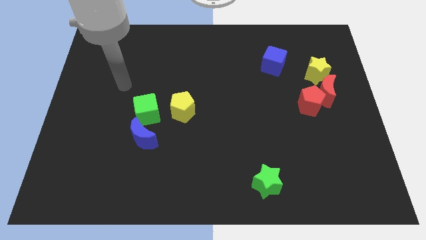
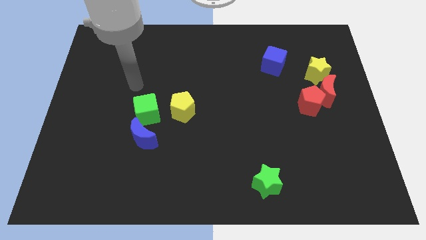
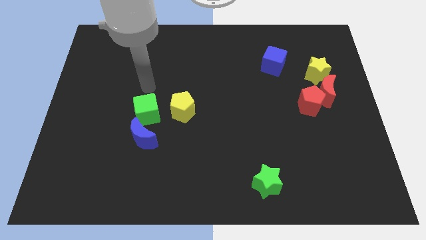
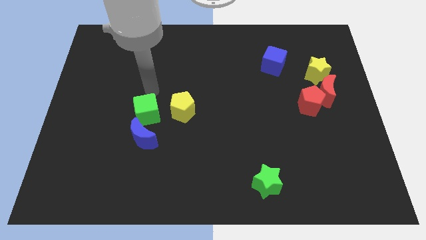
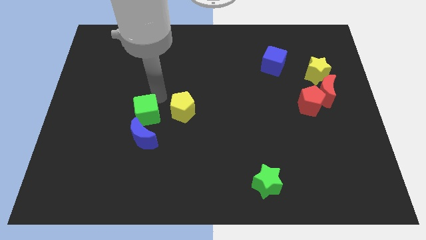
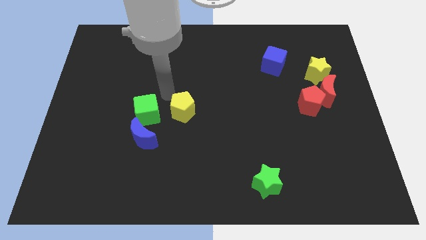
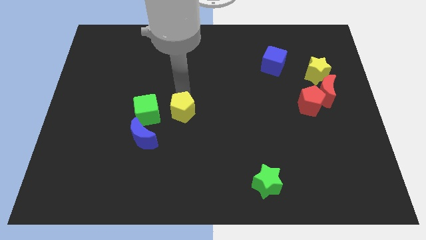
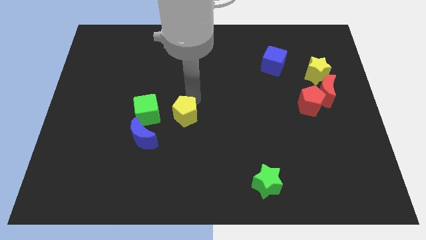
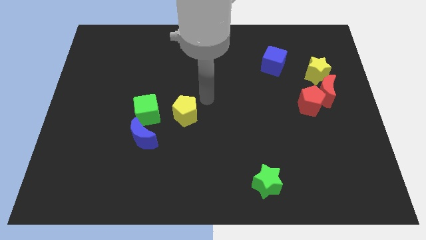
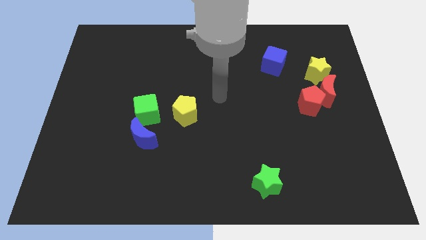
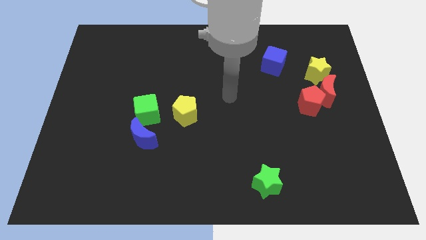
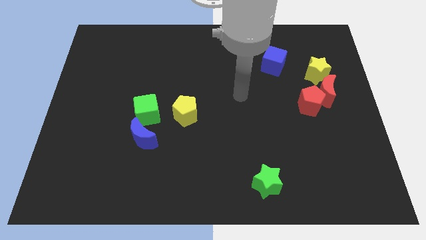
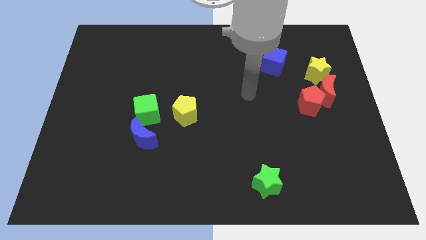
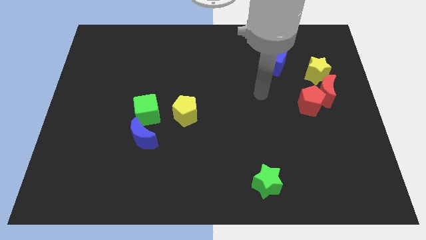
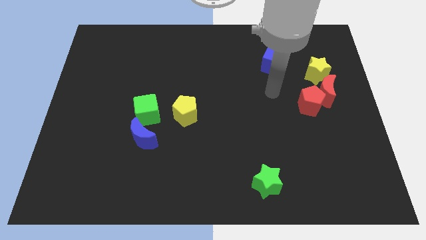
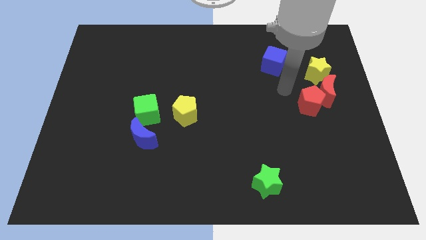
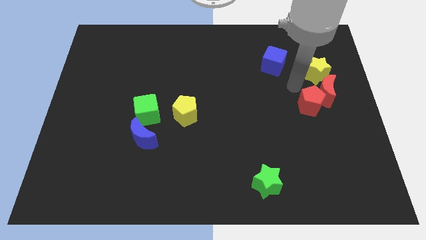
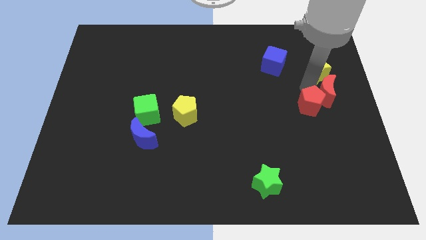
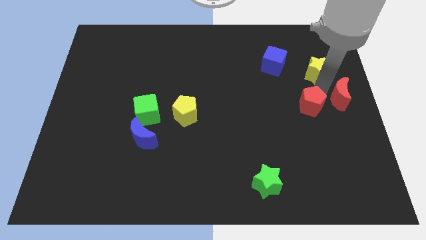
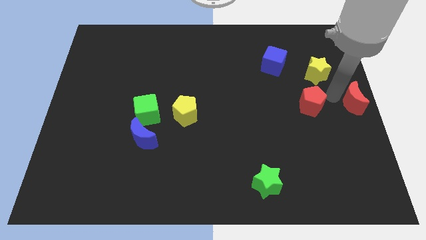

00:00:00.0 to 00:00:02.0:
separate the red pentagon from the red moon

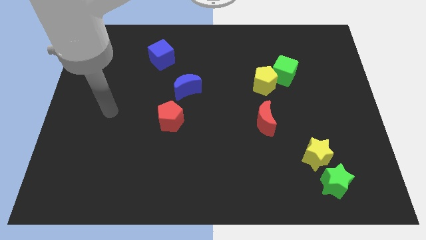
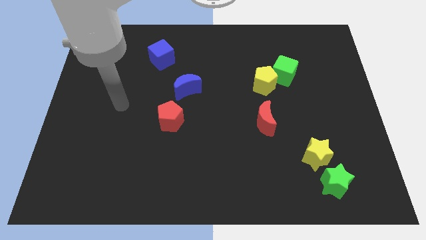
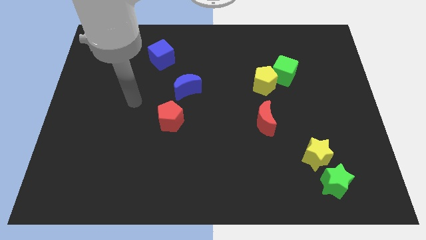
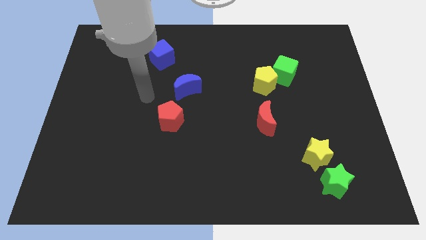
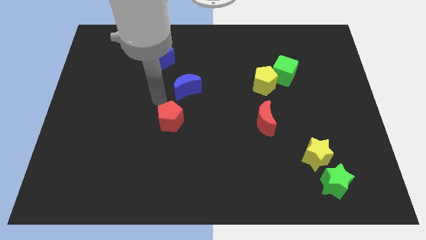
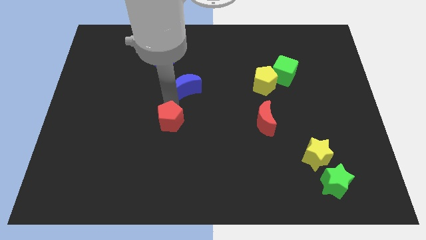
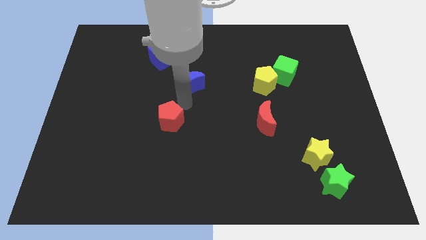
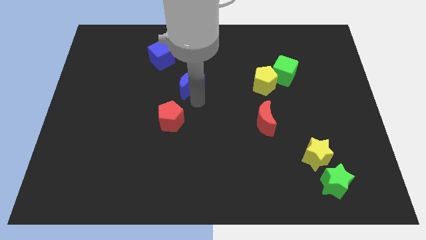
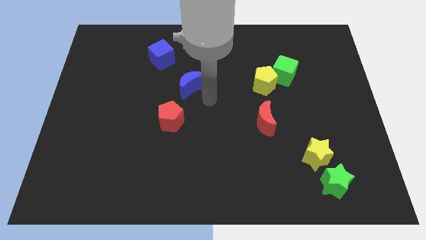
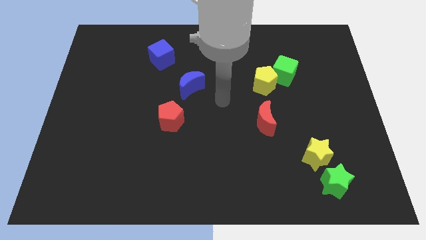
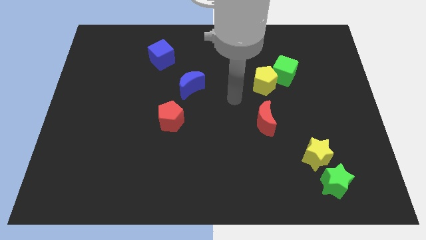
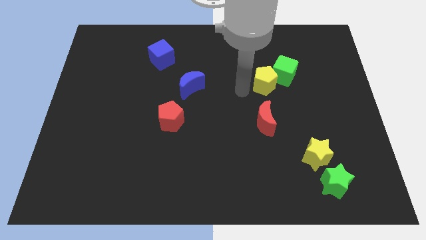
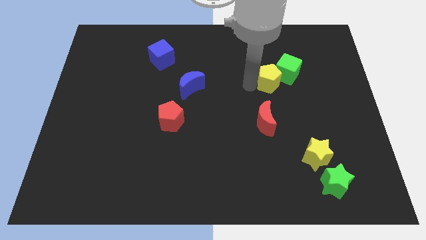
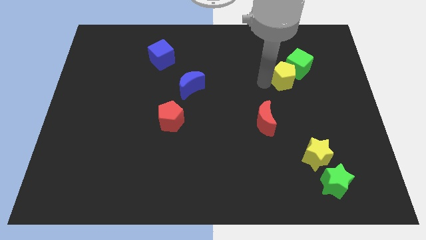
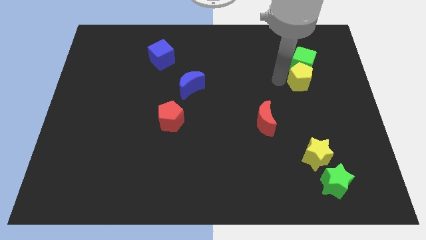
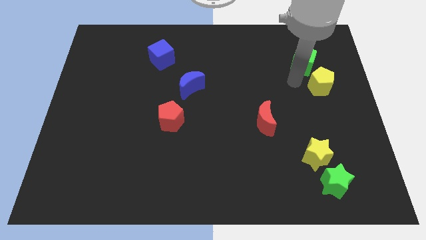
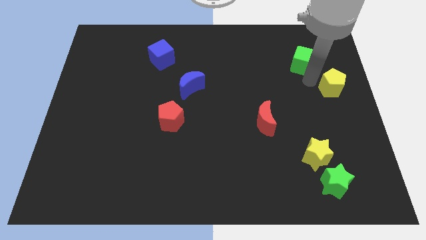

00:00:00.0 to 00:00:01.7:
move the green cube away from the yellow pentagon

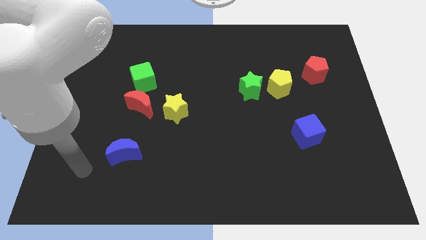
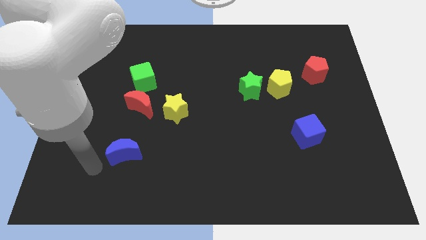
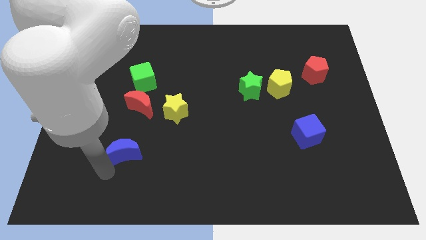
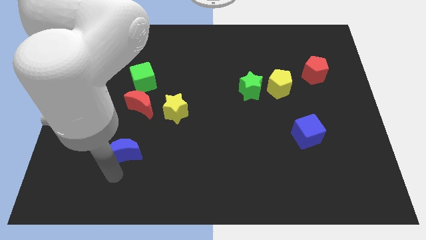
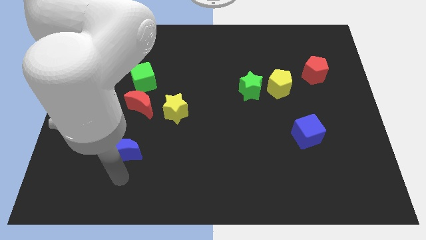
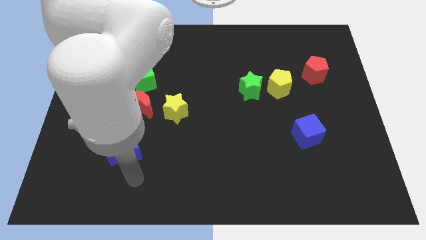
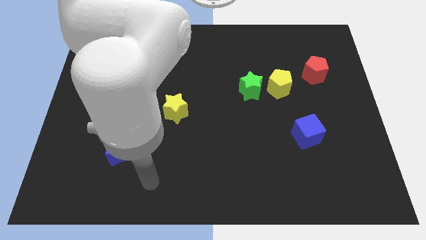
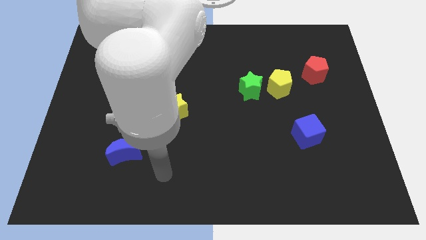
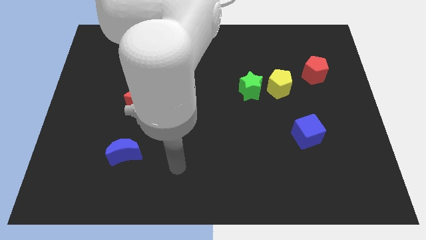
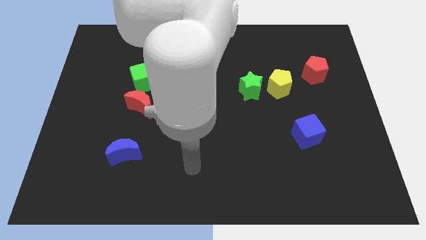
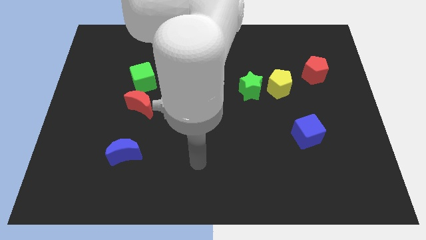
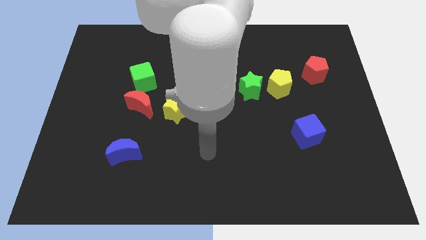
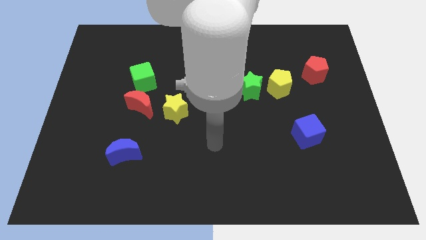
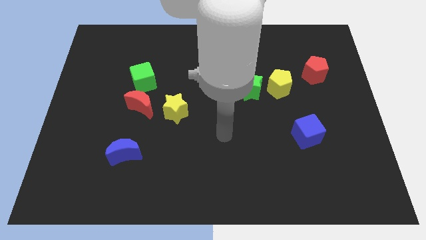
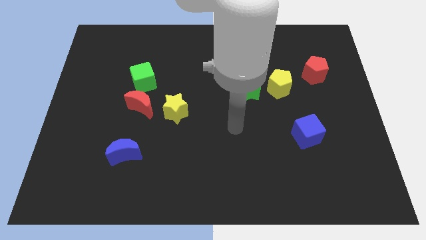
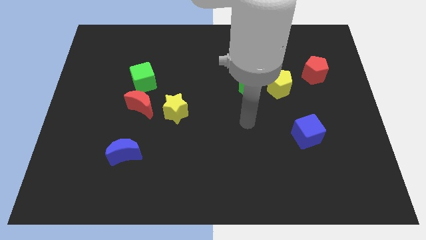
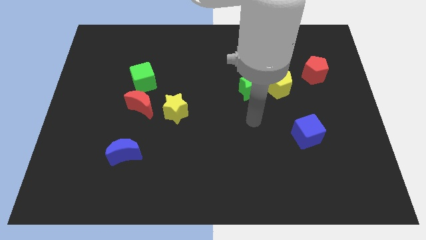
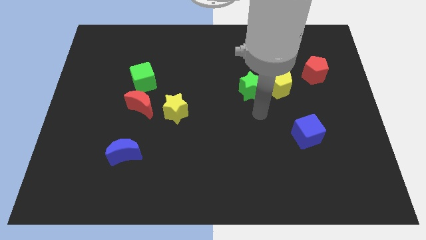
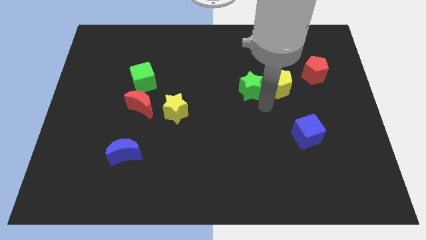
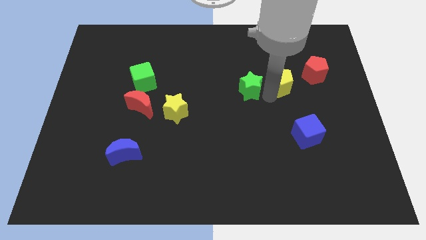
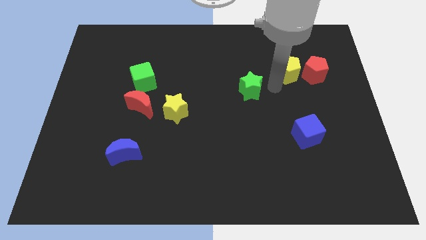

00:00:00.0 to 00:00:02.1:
pull the green star apart from the yellow pentagon

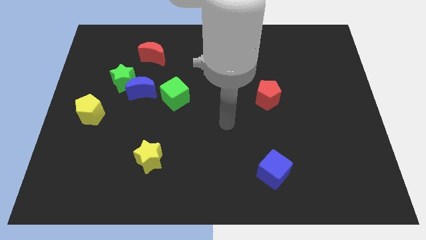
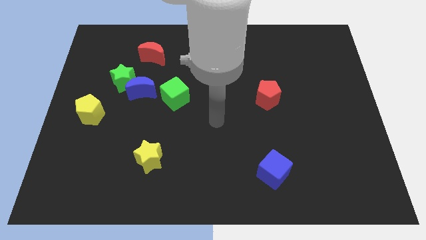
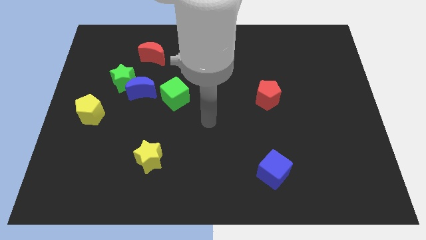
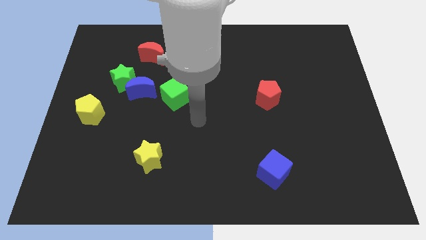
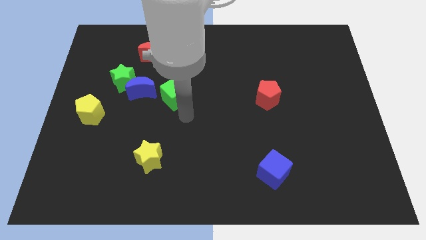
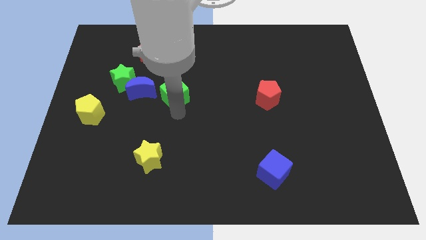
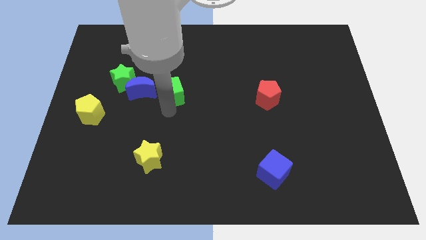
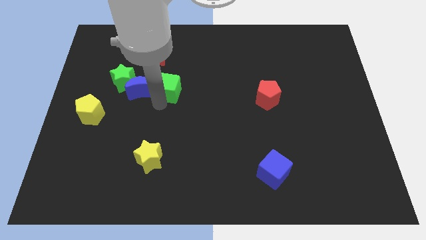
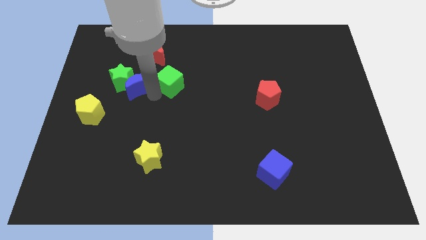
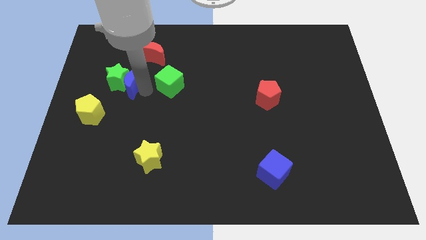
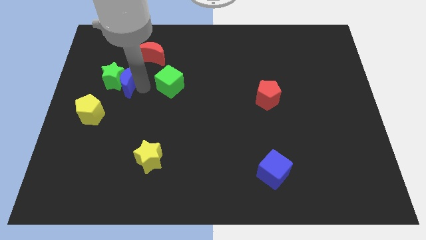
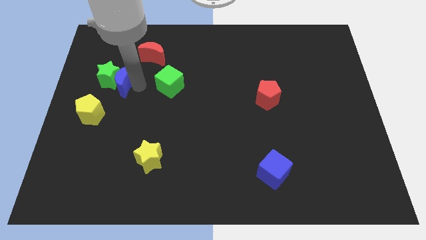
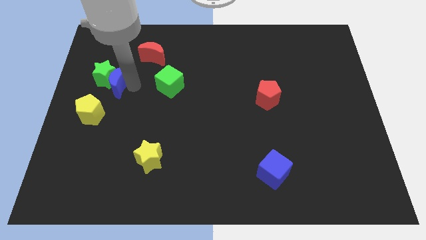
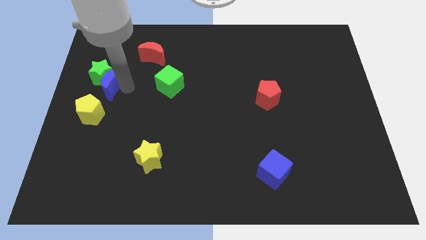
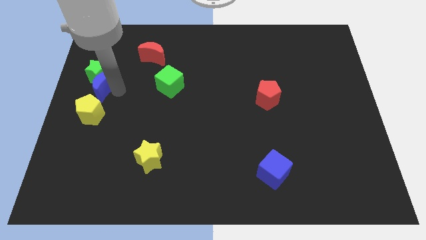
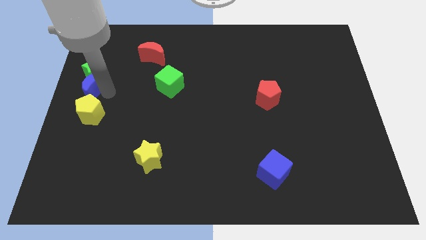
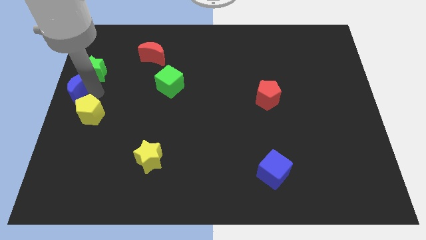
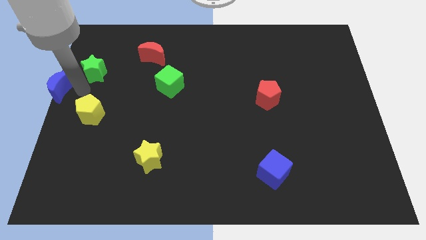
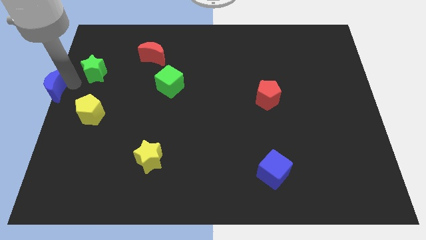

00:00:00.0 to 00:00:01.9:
separate the green star from the blue moon

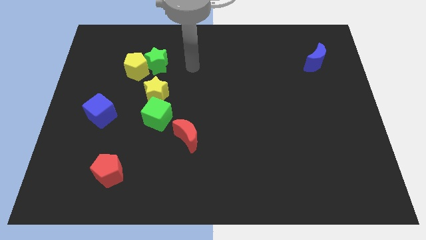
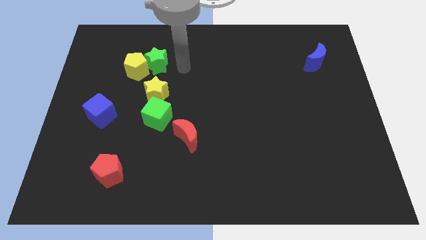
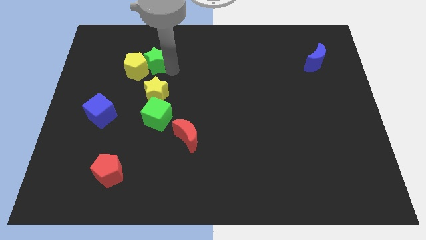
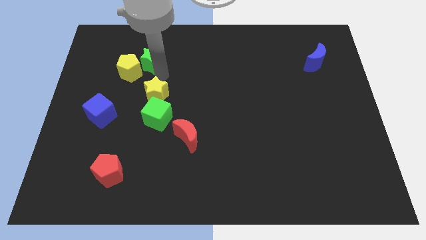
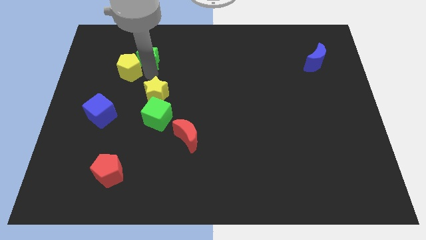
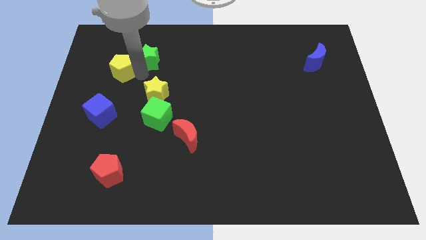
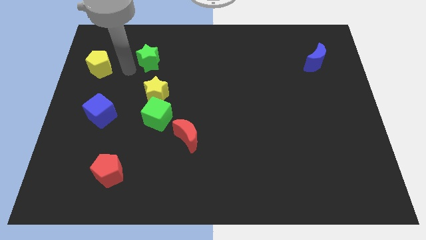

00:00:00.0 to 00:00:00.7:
separate the green star from the yellow pentagon

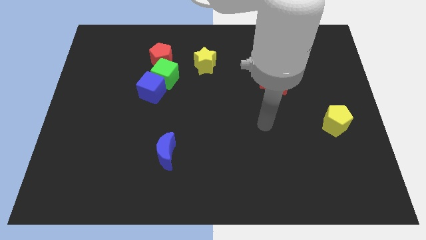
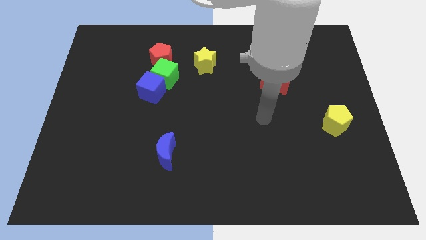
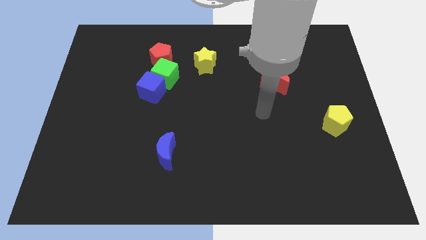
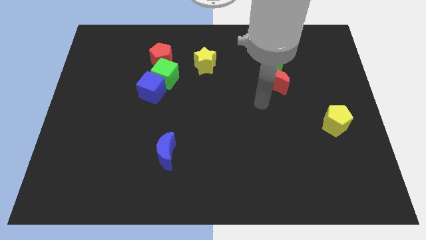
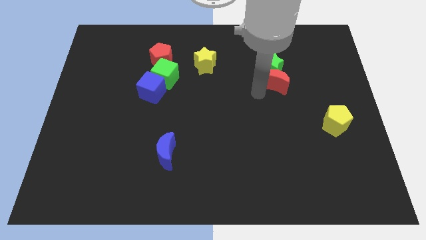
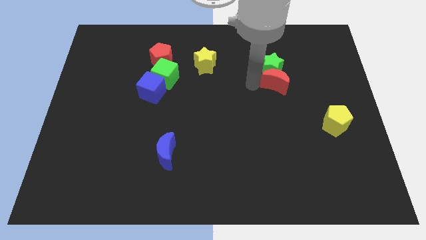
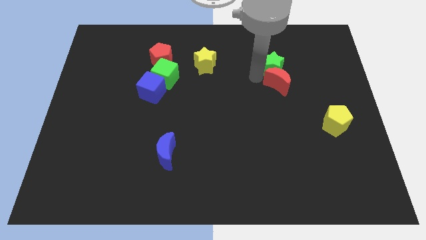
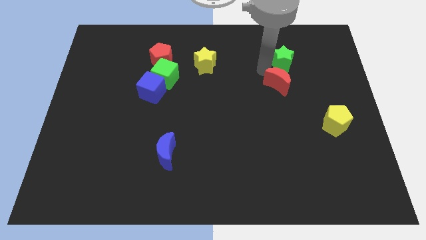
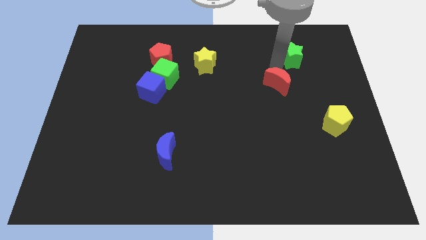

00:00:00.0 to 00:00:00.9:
separate the red moon from the green star
